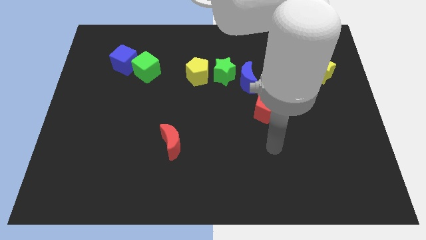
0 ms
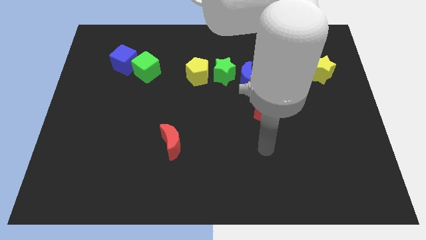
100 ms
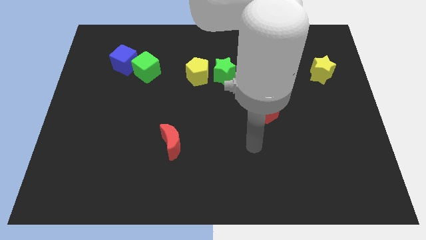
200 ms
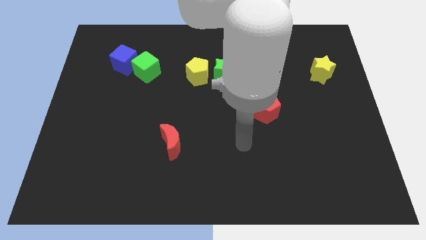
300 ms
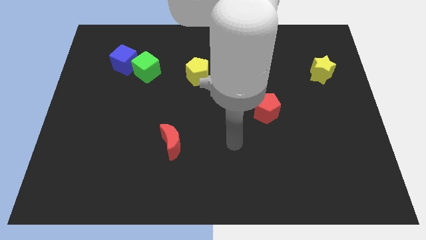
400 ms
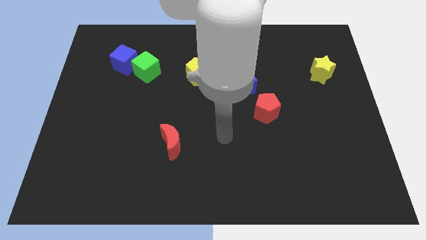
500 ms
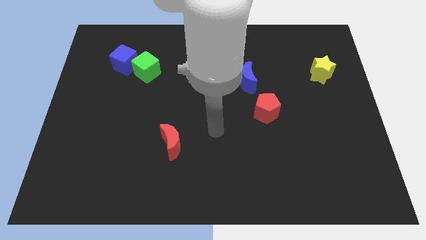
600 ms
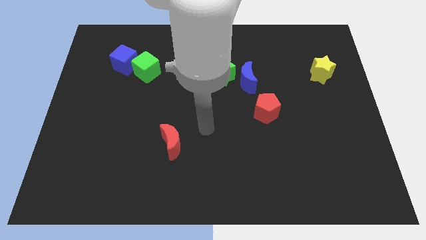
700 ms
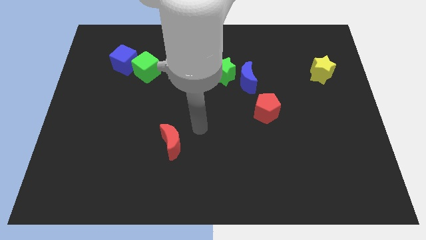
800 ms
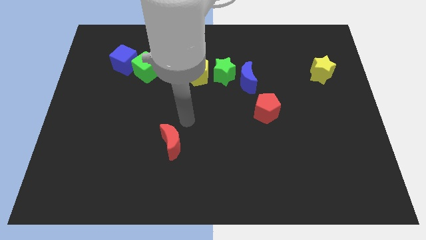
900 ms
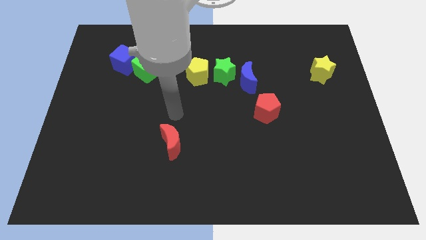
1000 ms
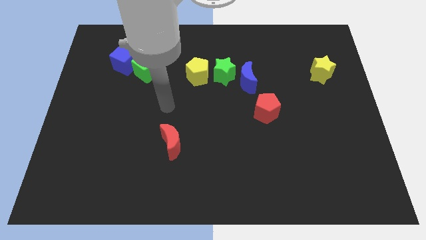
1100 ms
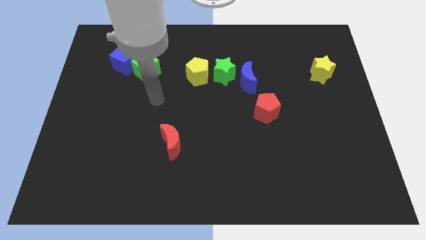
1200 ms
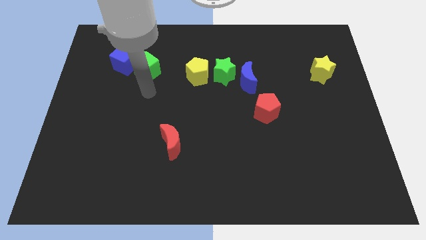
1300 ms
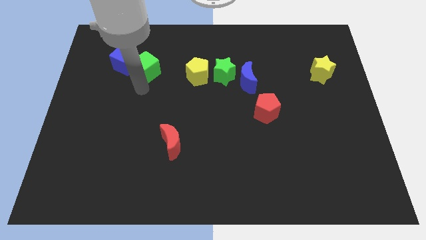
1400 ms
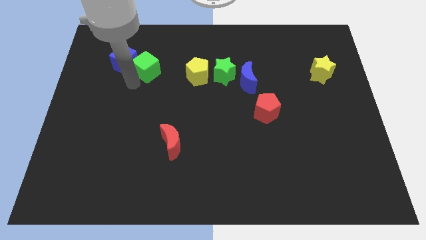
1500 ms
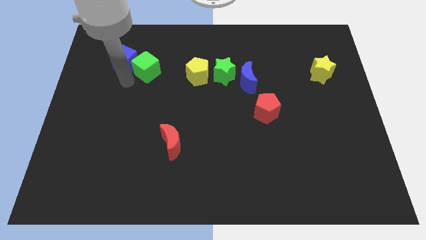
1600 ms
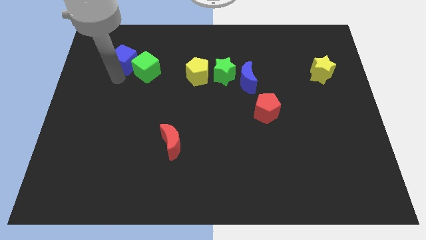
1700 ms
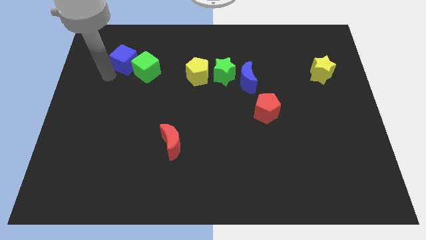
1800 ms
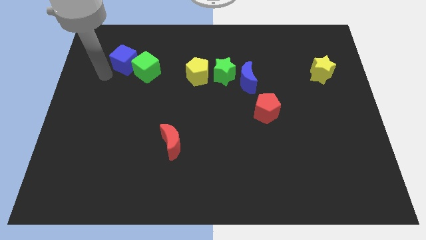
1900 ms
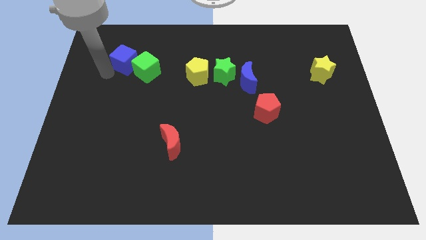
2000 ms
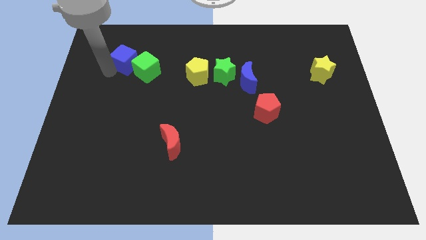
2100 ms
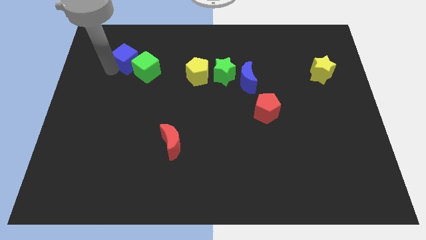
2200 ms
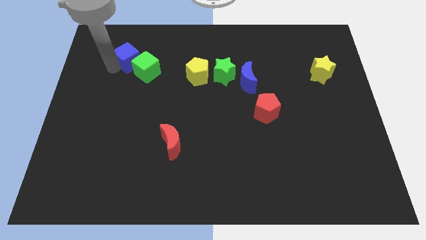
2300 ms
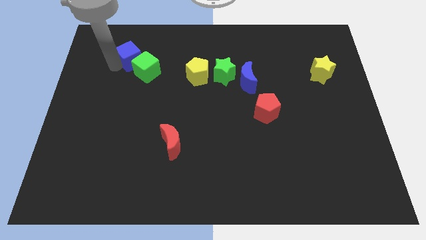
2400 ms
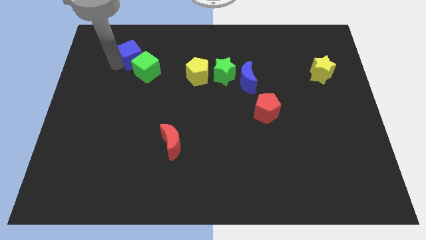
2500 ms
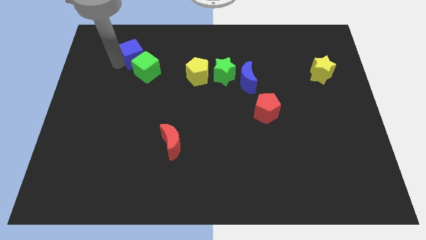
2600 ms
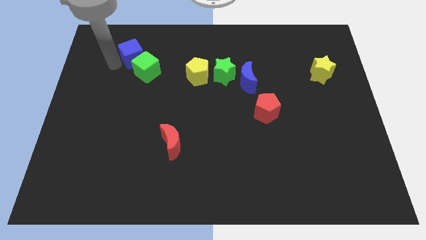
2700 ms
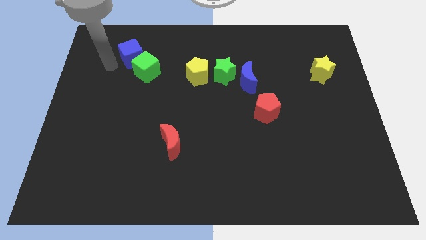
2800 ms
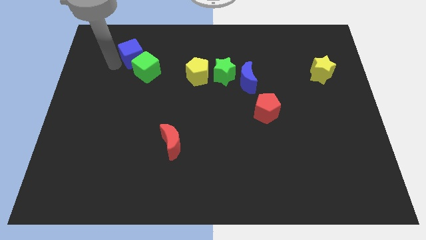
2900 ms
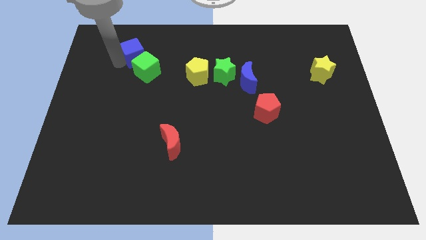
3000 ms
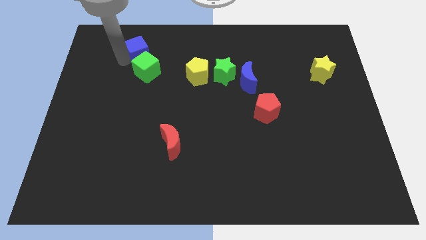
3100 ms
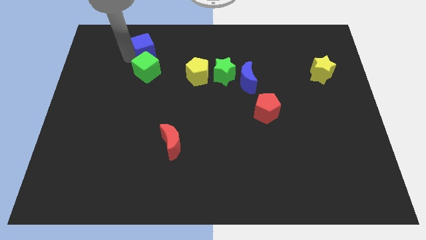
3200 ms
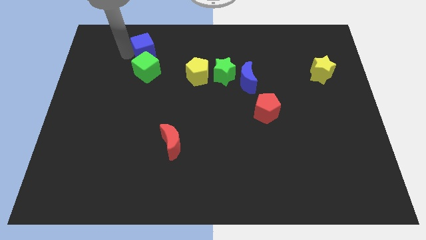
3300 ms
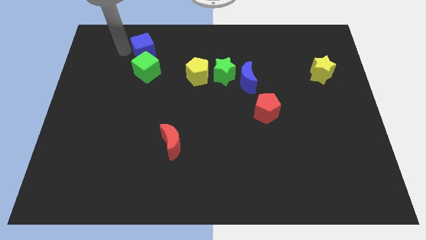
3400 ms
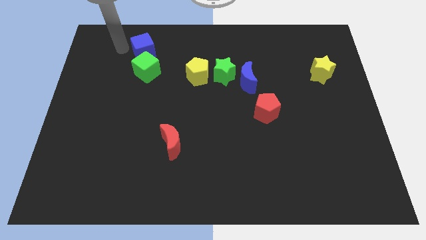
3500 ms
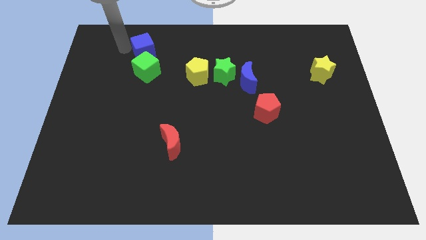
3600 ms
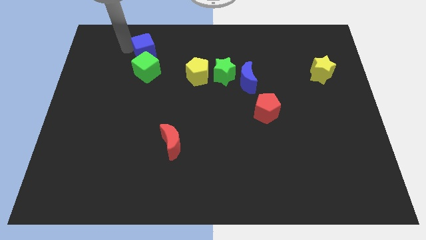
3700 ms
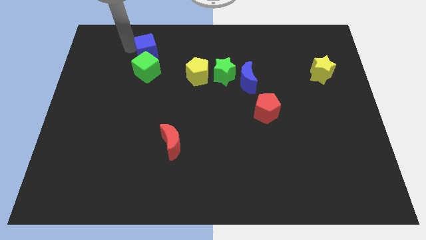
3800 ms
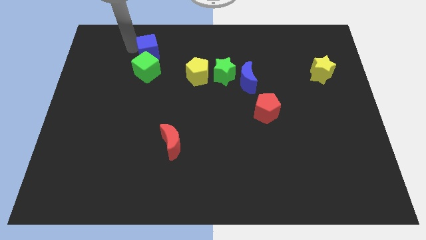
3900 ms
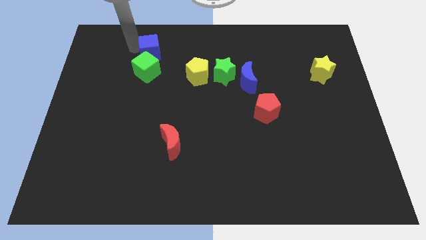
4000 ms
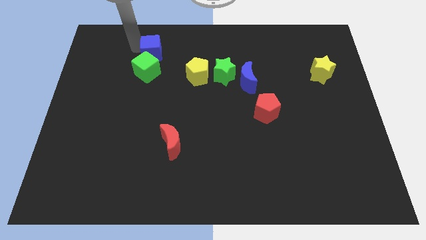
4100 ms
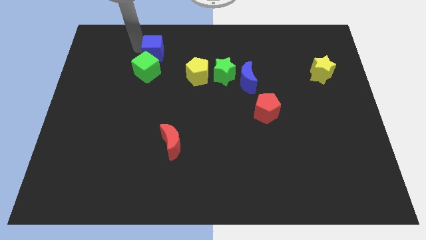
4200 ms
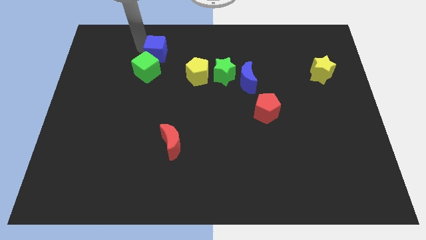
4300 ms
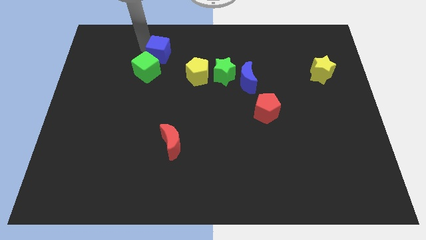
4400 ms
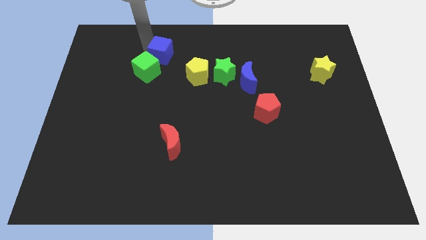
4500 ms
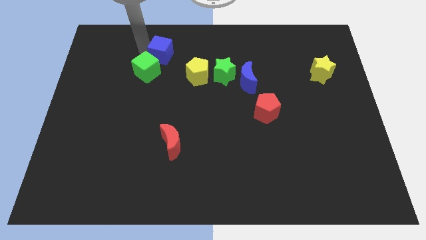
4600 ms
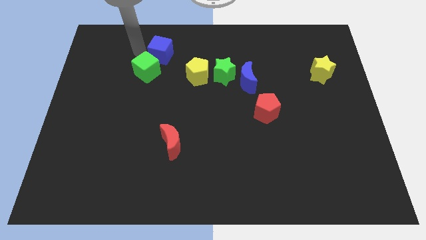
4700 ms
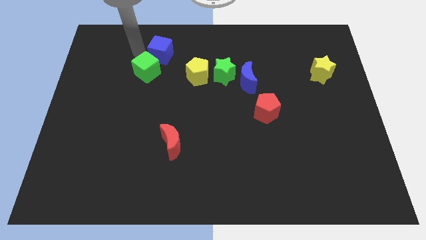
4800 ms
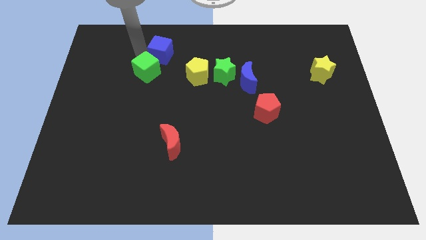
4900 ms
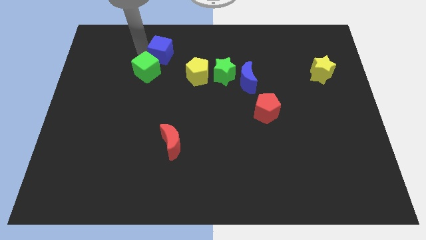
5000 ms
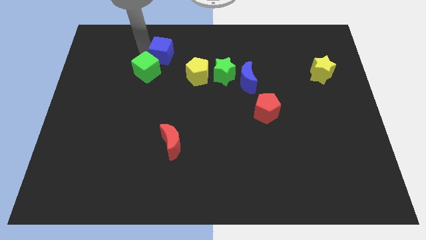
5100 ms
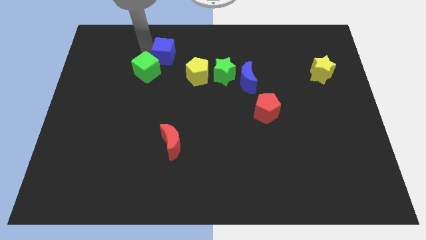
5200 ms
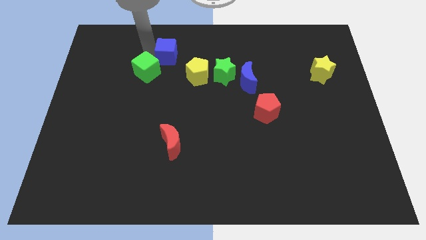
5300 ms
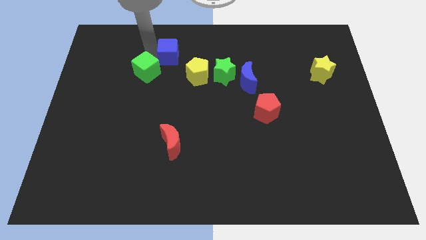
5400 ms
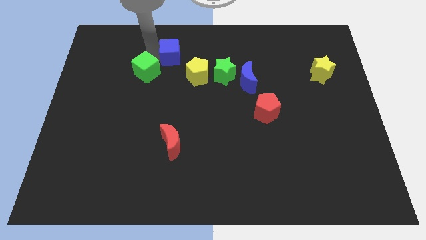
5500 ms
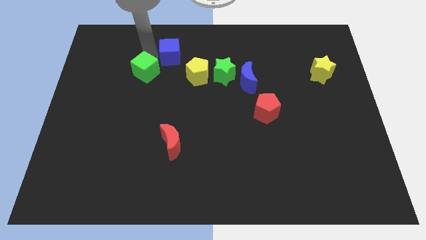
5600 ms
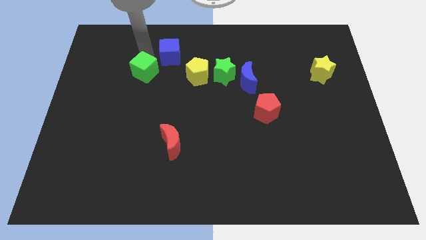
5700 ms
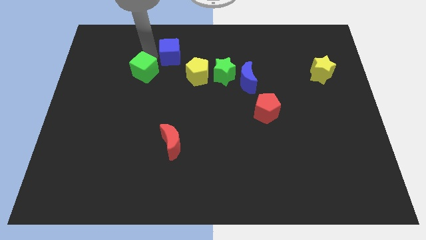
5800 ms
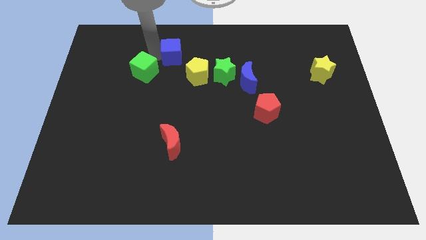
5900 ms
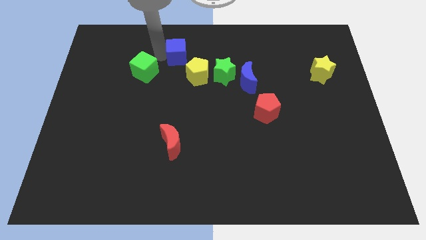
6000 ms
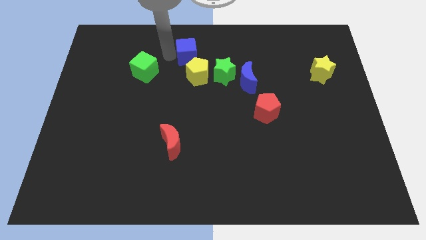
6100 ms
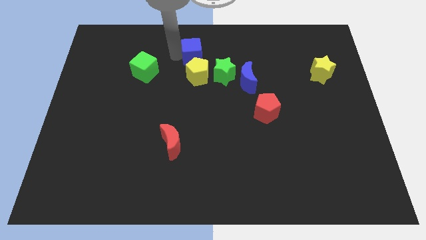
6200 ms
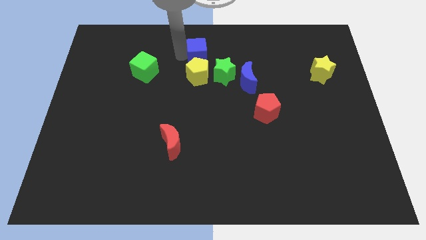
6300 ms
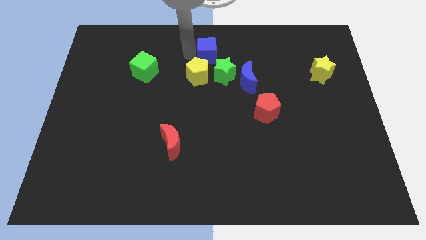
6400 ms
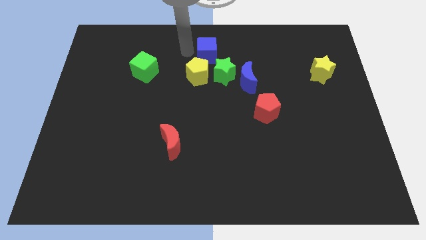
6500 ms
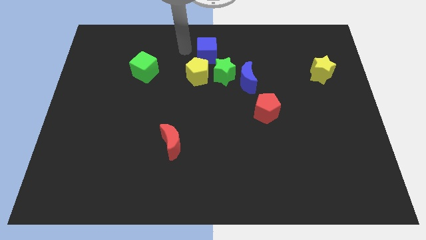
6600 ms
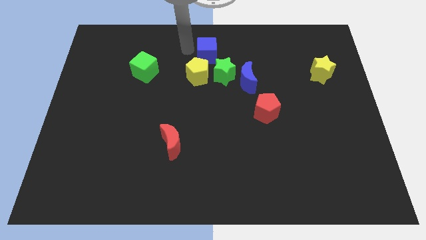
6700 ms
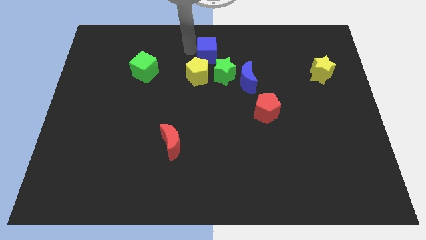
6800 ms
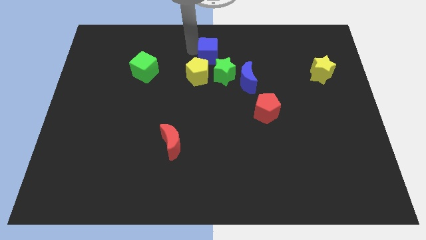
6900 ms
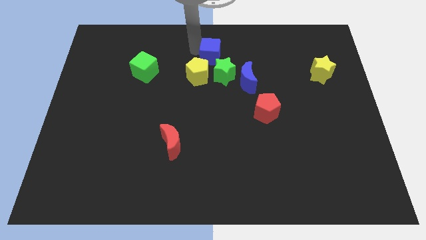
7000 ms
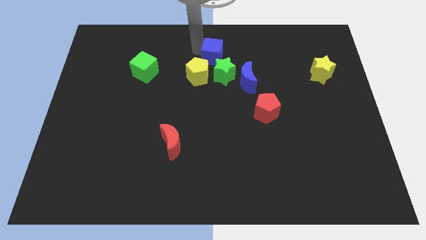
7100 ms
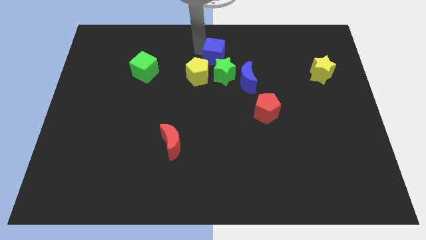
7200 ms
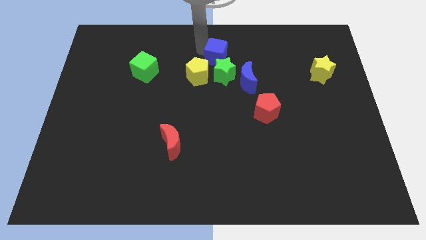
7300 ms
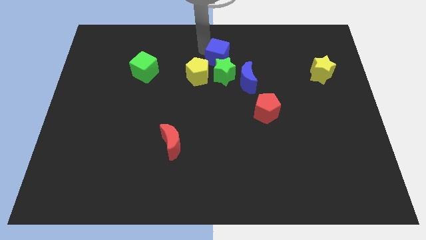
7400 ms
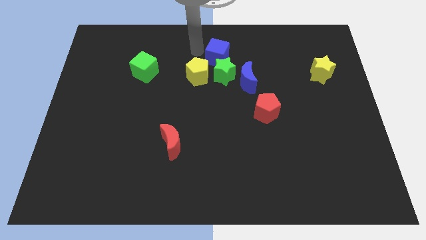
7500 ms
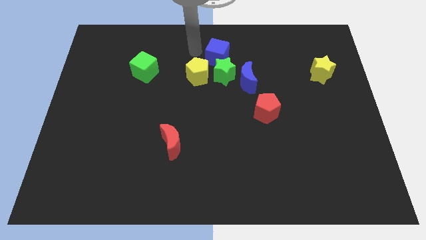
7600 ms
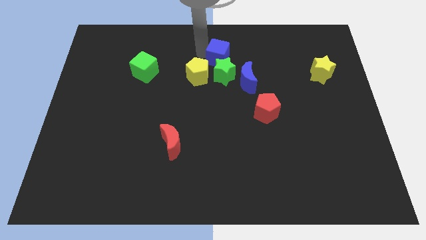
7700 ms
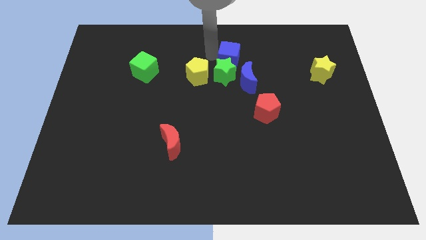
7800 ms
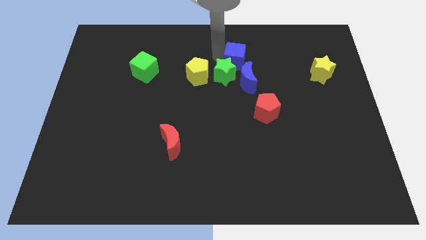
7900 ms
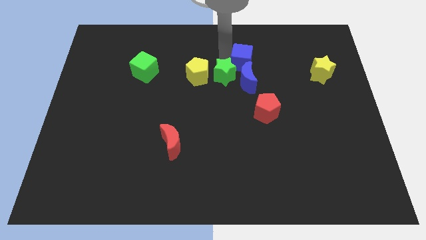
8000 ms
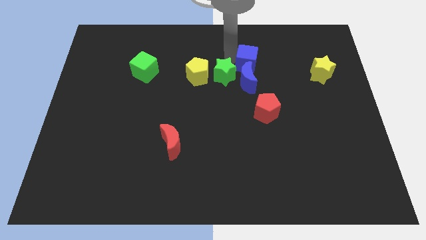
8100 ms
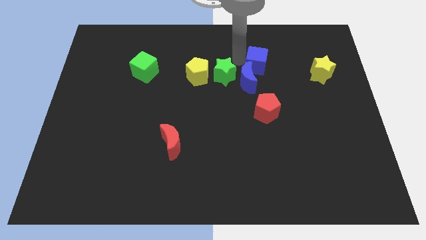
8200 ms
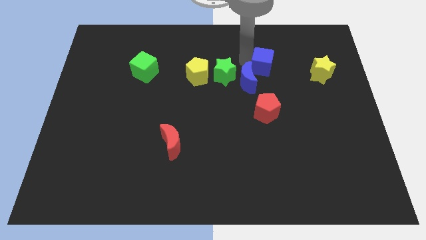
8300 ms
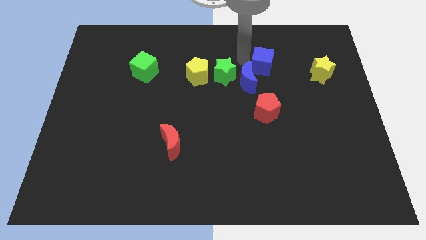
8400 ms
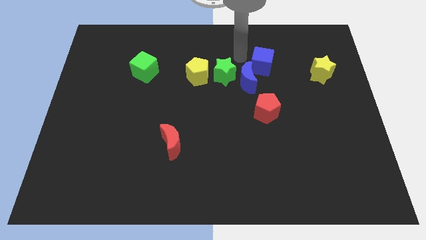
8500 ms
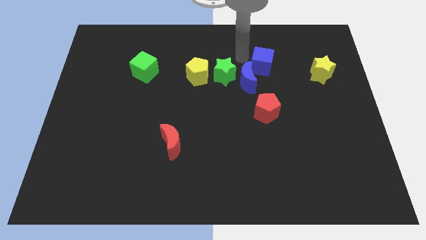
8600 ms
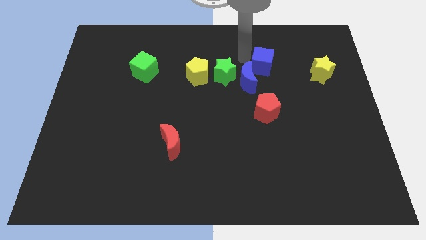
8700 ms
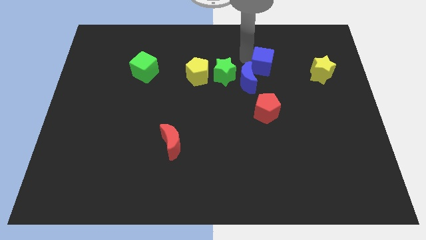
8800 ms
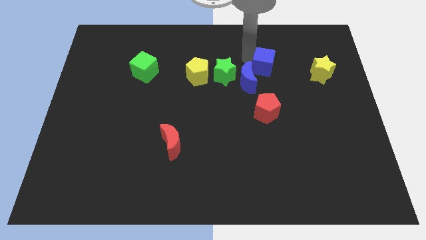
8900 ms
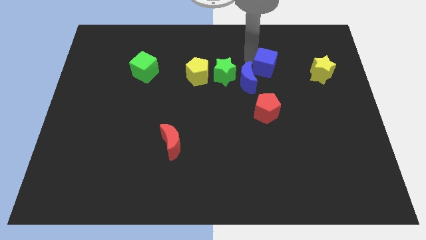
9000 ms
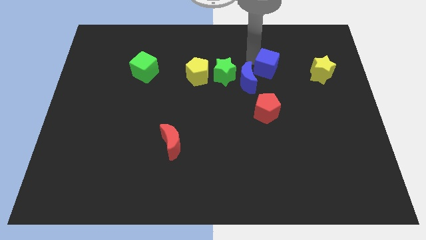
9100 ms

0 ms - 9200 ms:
move the blue cube to the right of the blue moon
